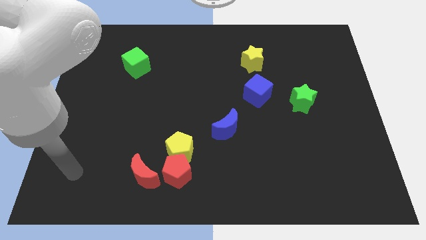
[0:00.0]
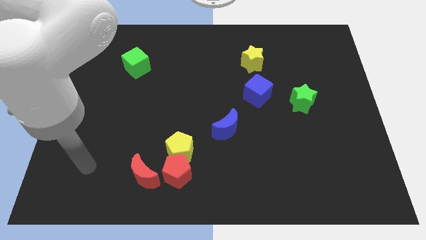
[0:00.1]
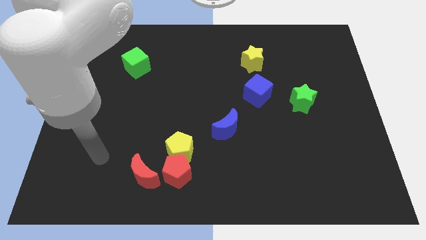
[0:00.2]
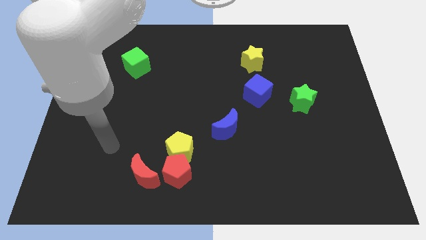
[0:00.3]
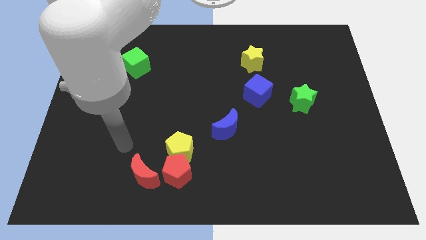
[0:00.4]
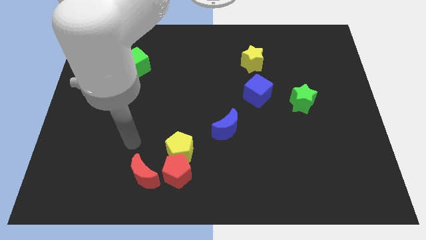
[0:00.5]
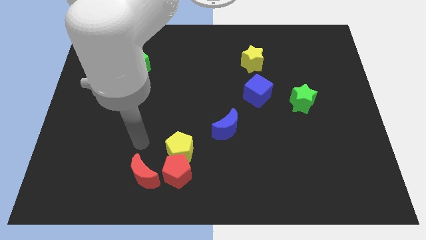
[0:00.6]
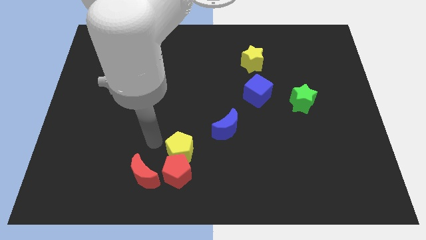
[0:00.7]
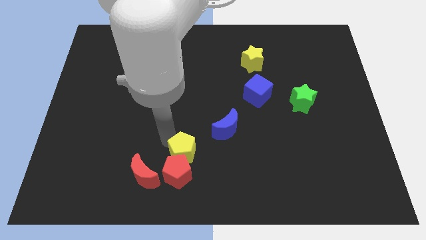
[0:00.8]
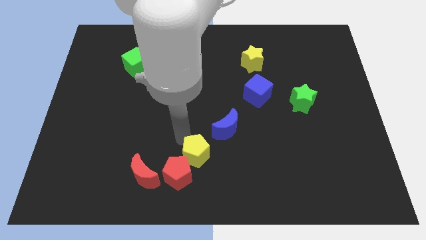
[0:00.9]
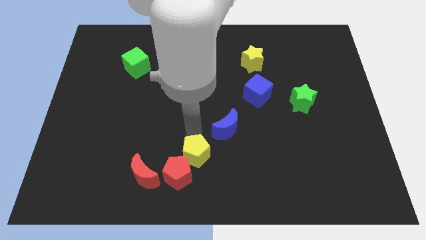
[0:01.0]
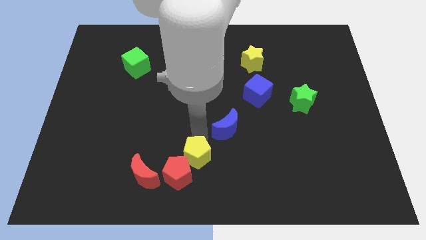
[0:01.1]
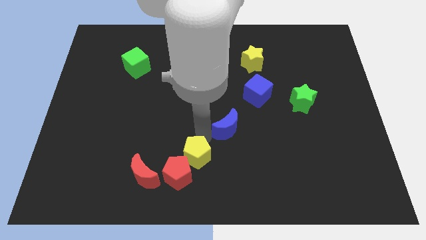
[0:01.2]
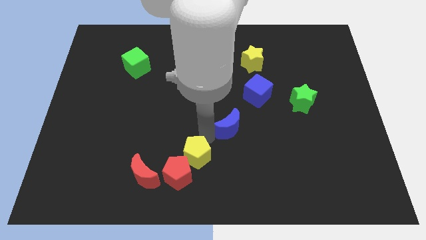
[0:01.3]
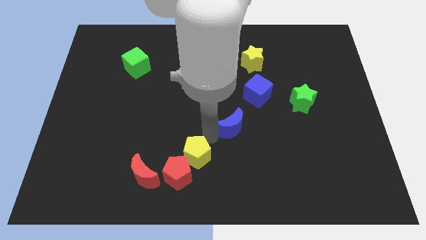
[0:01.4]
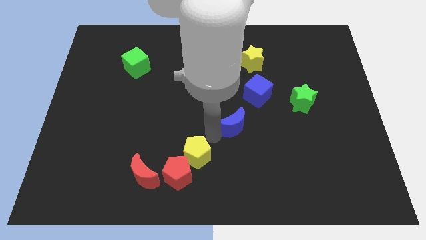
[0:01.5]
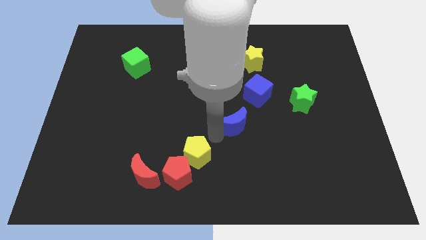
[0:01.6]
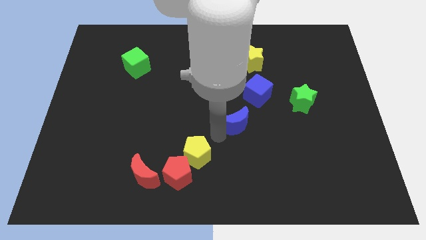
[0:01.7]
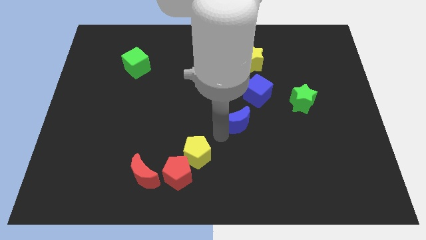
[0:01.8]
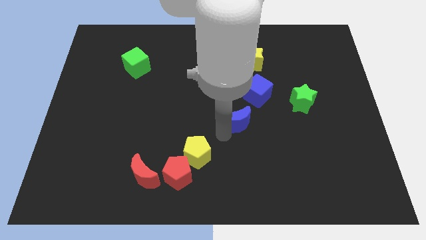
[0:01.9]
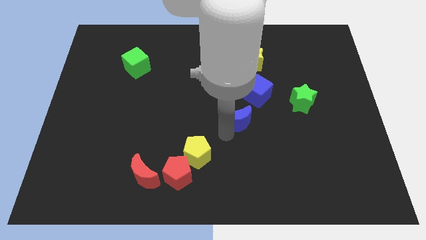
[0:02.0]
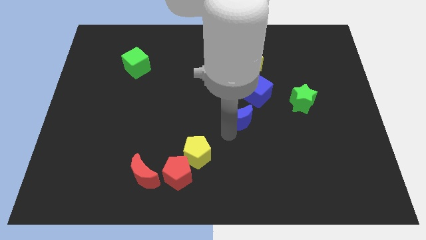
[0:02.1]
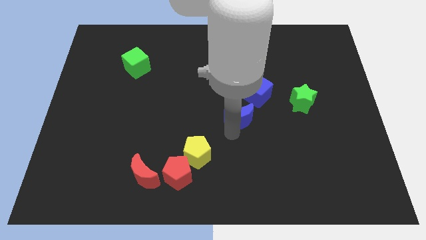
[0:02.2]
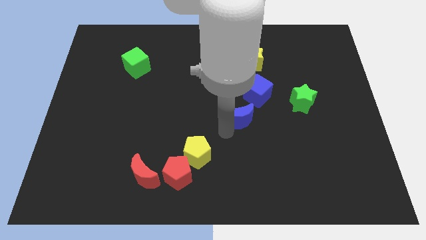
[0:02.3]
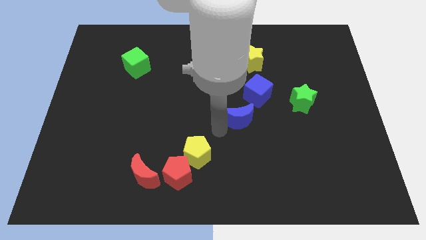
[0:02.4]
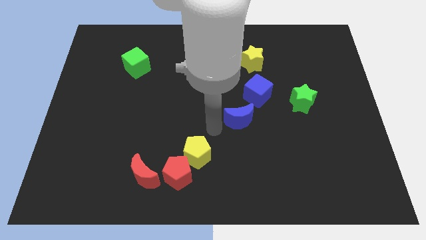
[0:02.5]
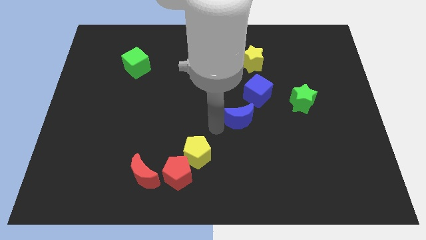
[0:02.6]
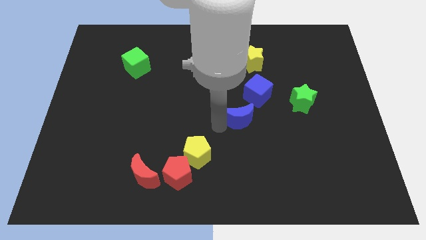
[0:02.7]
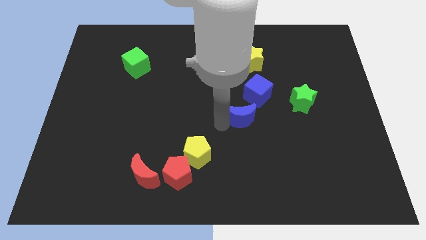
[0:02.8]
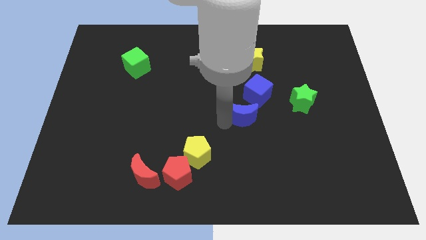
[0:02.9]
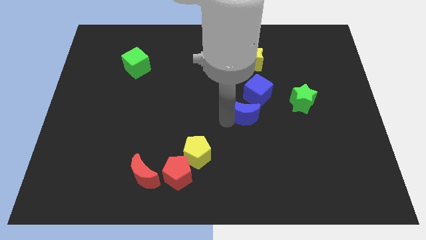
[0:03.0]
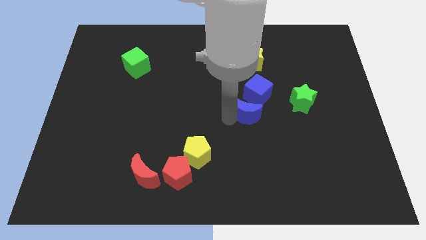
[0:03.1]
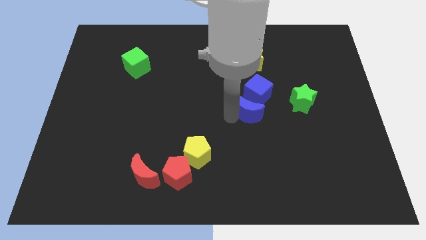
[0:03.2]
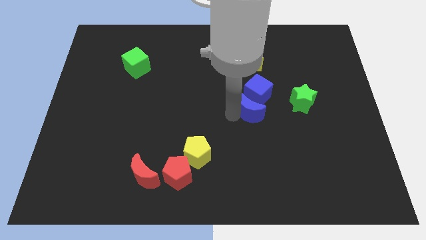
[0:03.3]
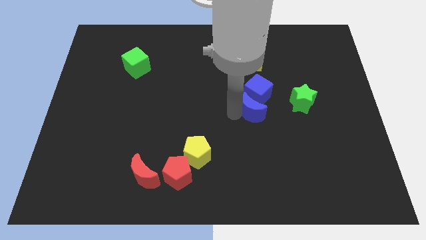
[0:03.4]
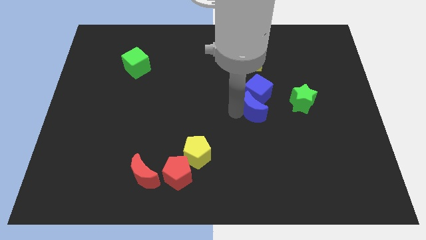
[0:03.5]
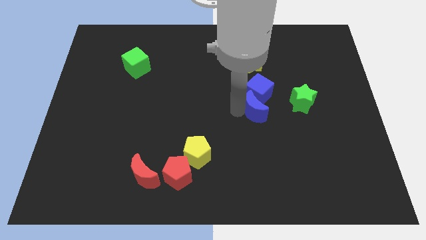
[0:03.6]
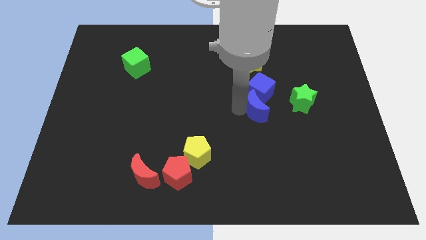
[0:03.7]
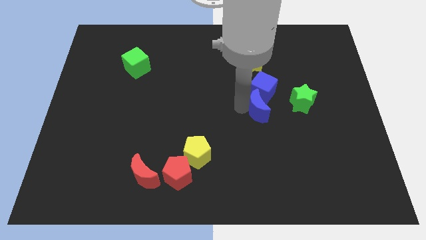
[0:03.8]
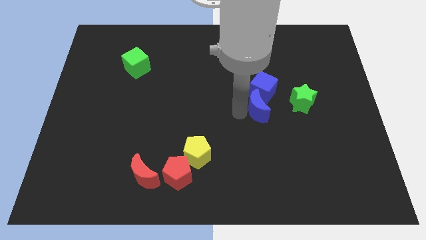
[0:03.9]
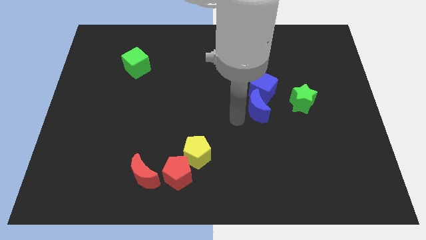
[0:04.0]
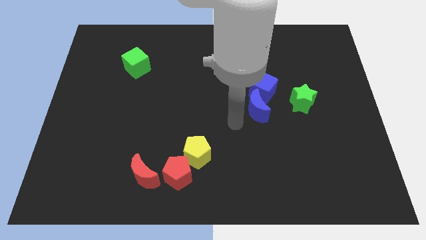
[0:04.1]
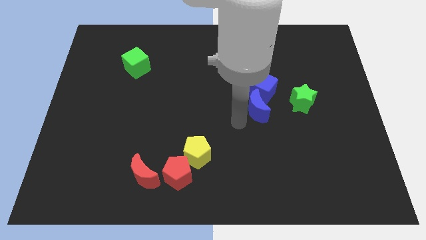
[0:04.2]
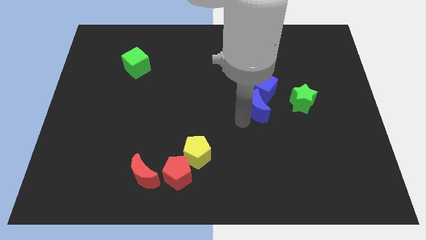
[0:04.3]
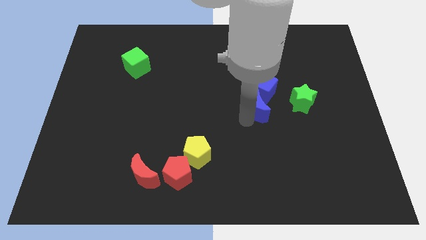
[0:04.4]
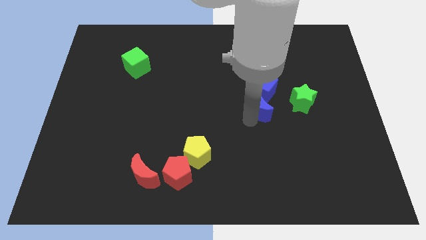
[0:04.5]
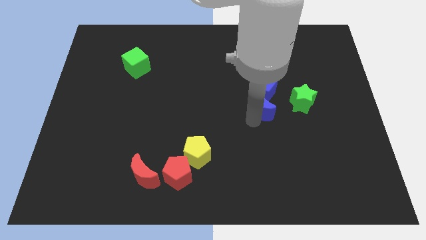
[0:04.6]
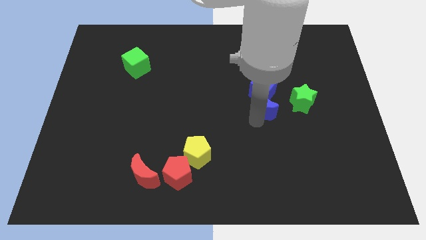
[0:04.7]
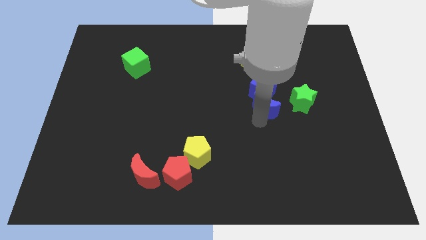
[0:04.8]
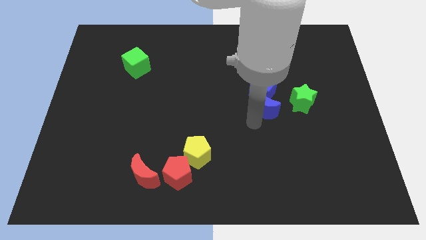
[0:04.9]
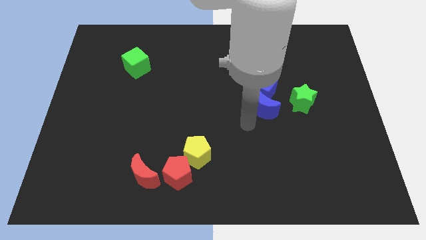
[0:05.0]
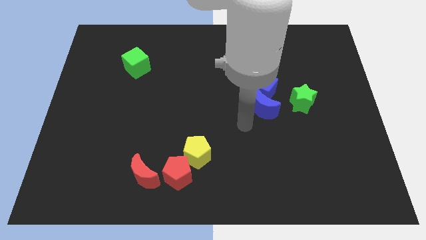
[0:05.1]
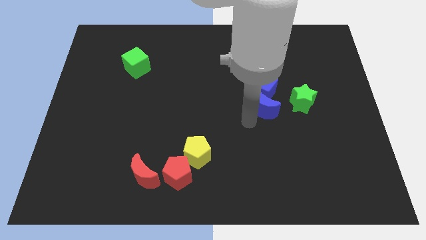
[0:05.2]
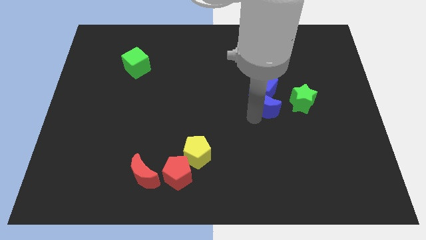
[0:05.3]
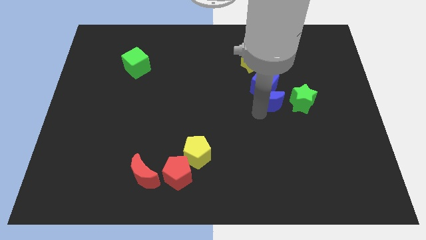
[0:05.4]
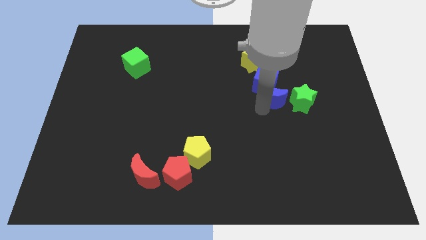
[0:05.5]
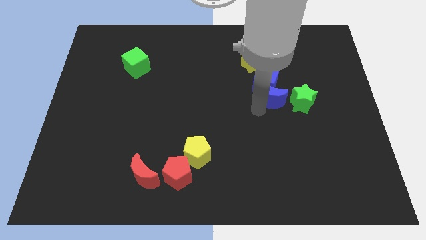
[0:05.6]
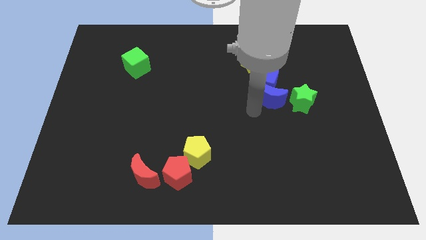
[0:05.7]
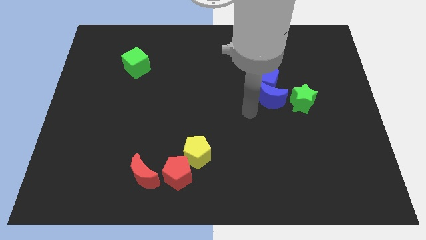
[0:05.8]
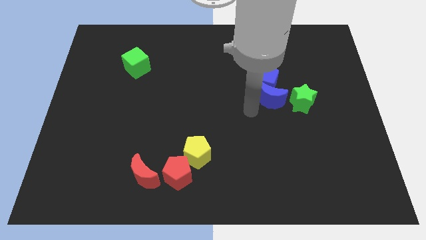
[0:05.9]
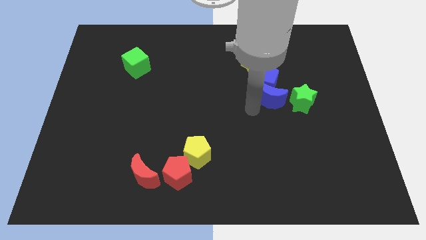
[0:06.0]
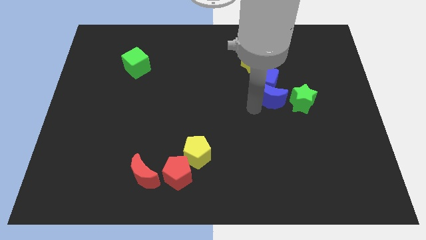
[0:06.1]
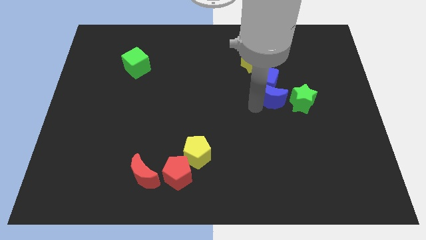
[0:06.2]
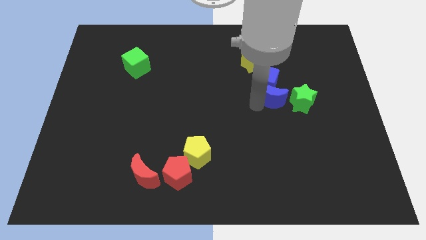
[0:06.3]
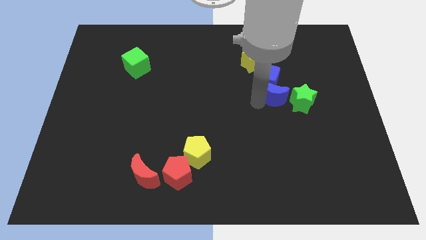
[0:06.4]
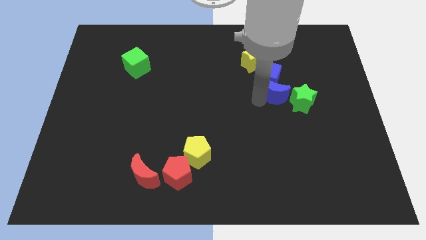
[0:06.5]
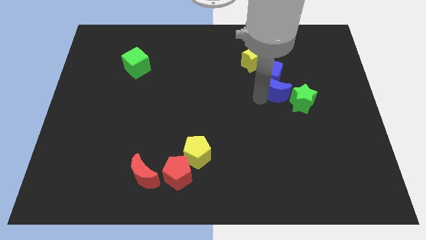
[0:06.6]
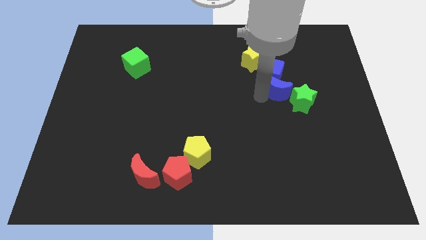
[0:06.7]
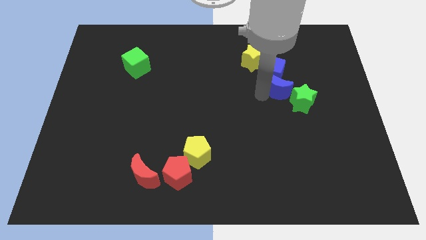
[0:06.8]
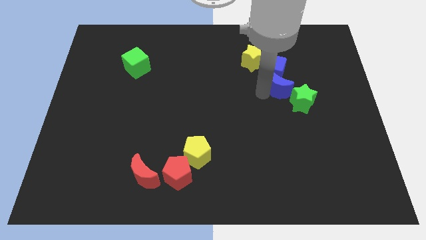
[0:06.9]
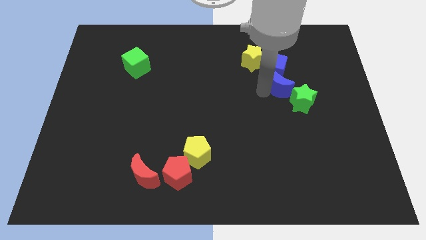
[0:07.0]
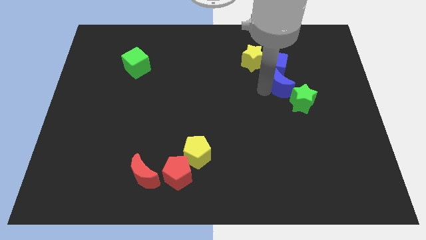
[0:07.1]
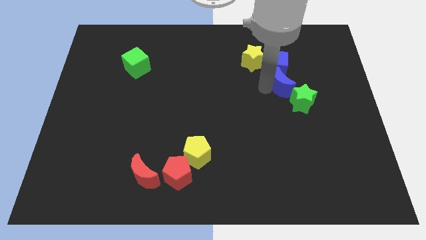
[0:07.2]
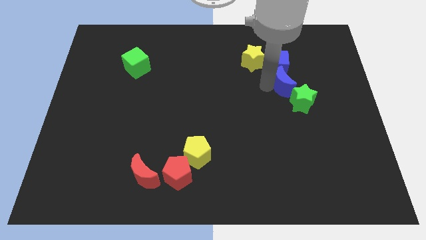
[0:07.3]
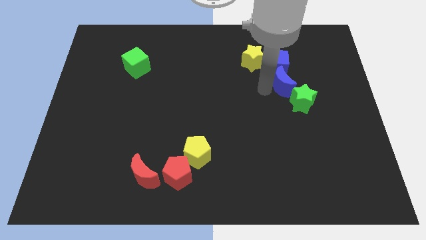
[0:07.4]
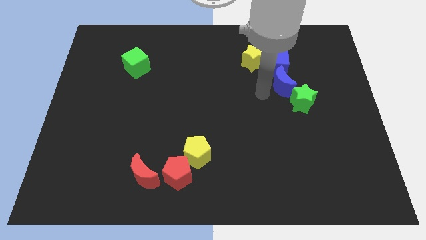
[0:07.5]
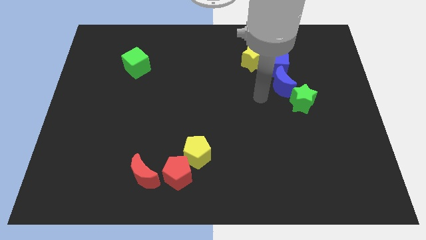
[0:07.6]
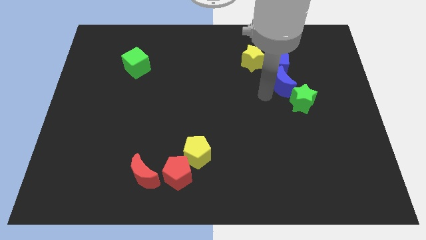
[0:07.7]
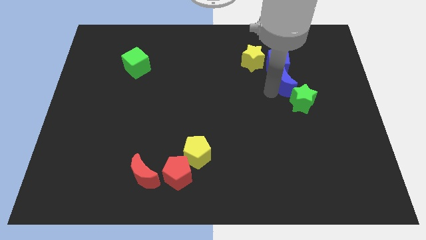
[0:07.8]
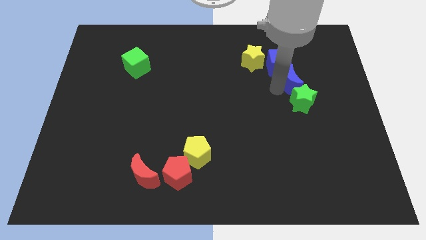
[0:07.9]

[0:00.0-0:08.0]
push the blue moon up and right diagonally
